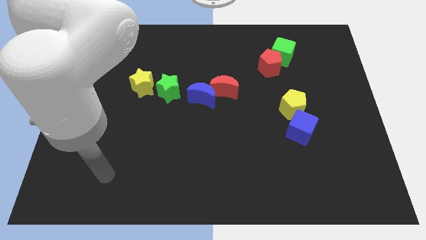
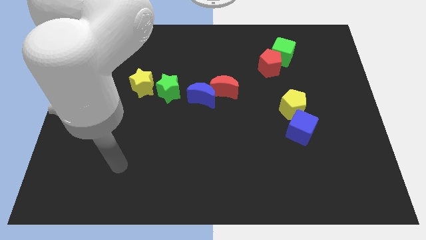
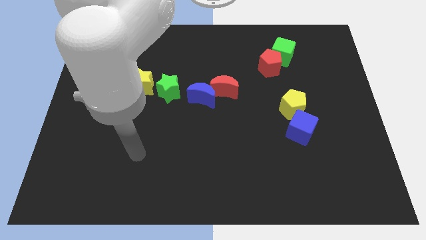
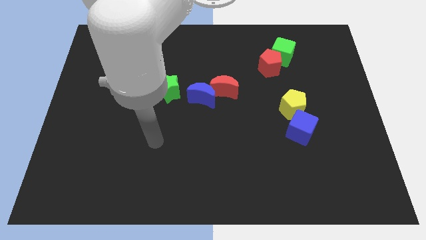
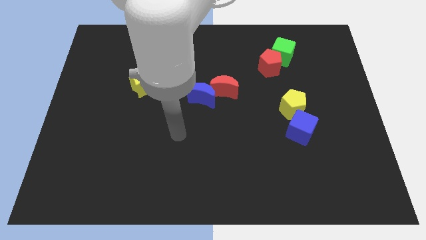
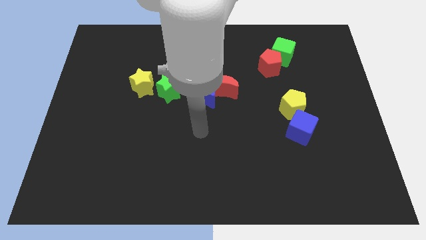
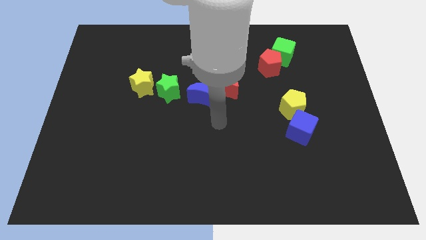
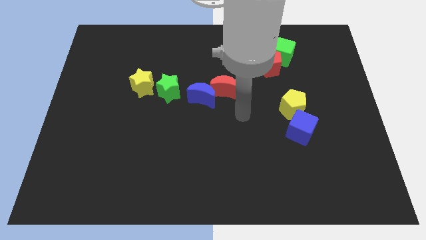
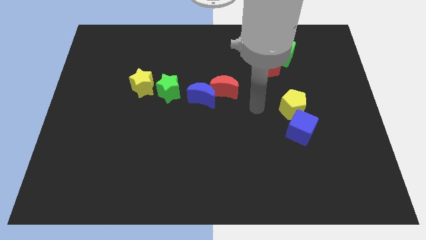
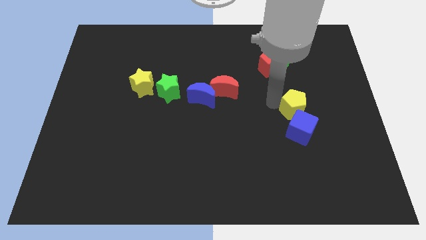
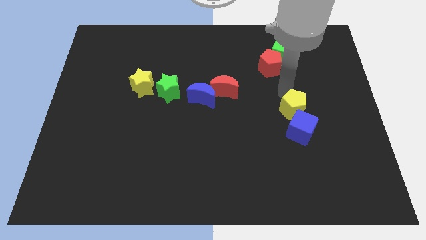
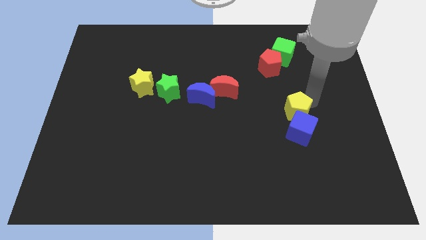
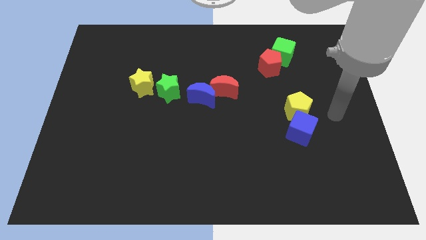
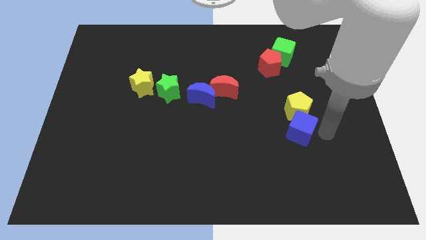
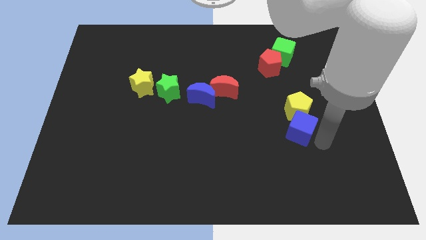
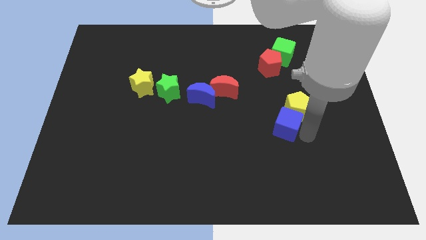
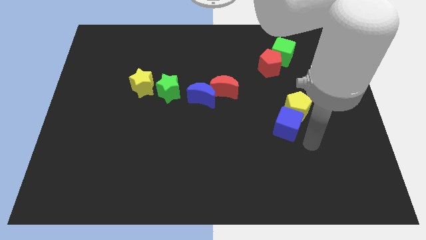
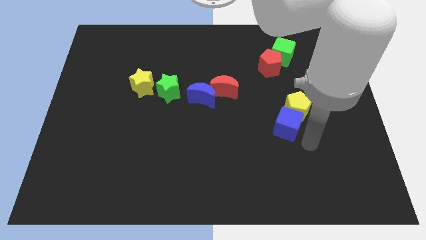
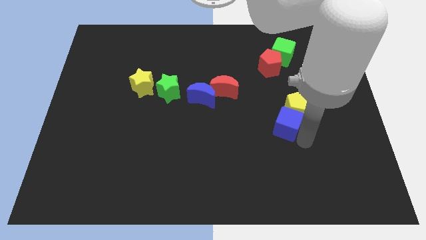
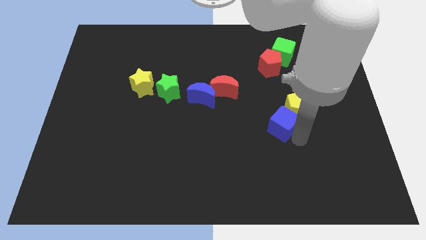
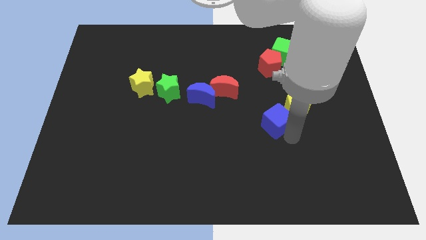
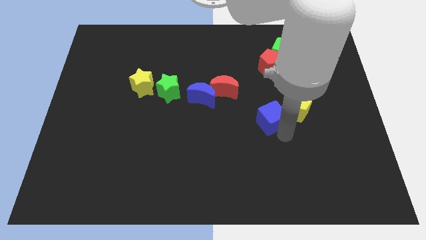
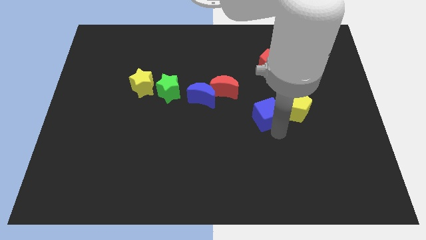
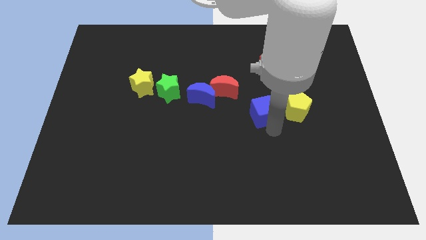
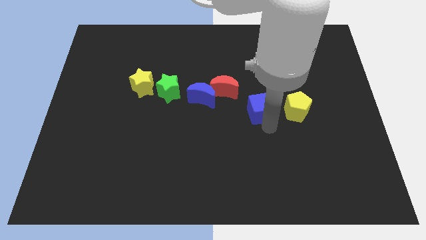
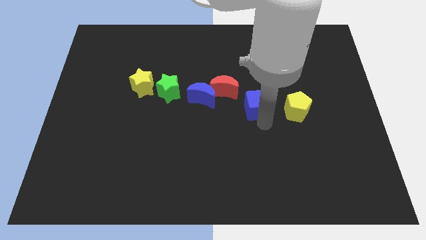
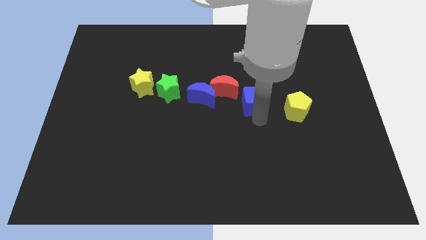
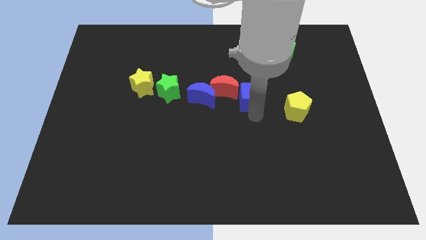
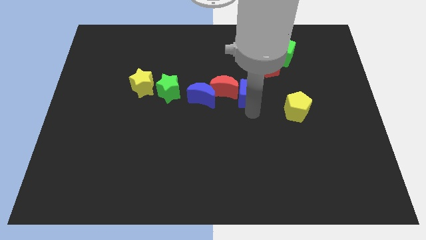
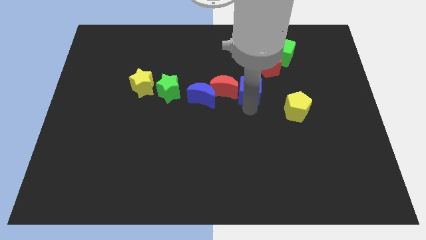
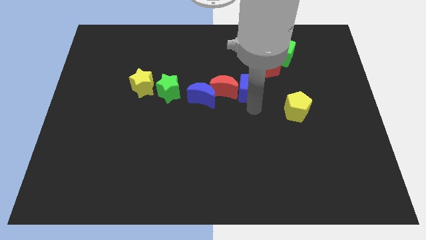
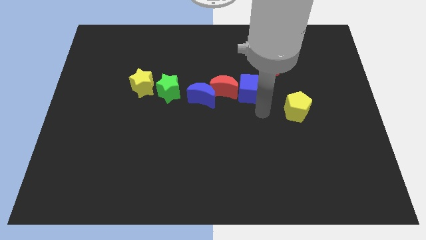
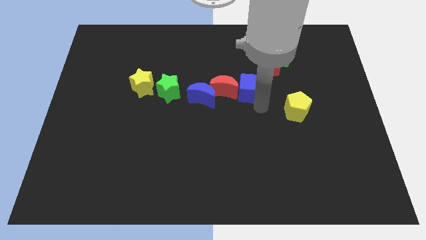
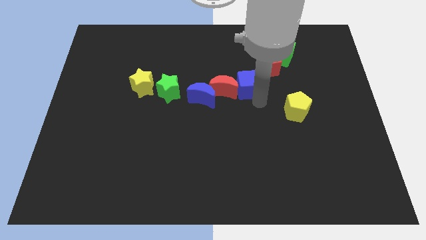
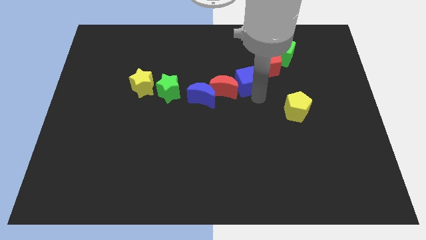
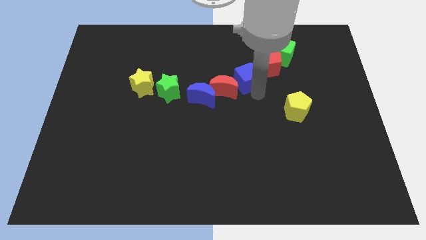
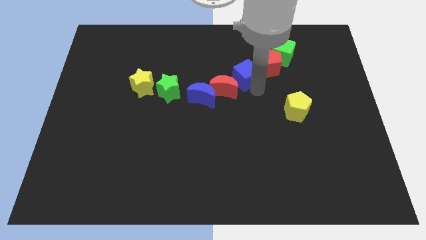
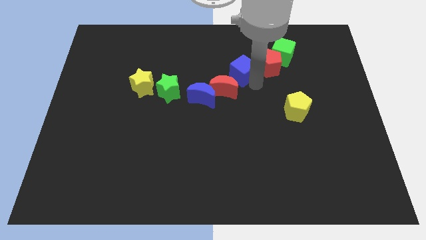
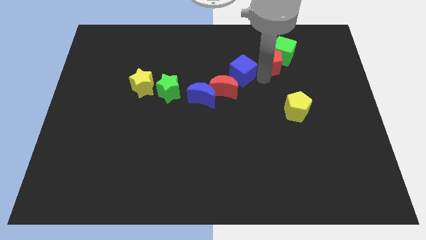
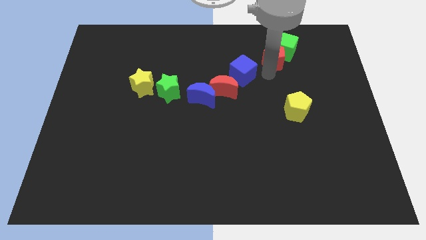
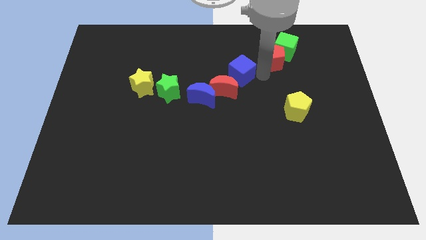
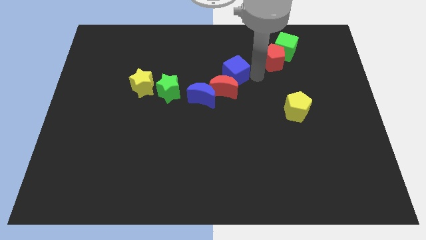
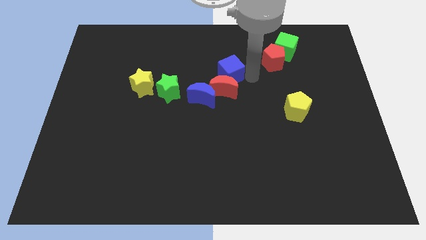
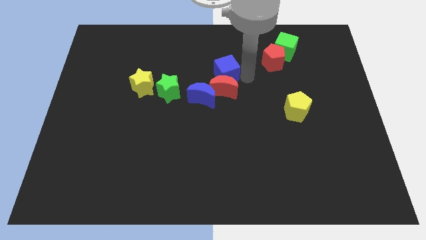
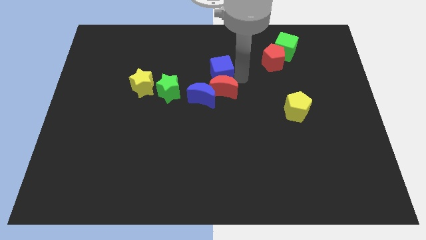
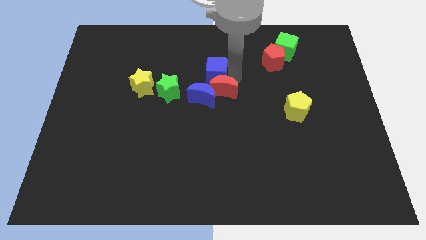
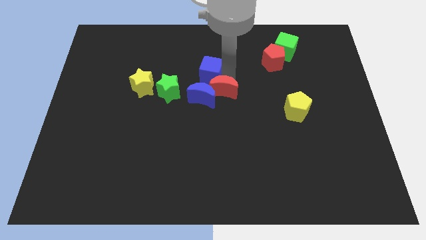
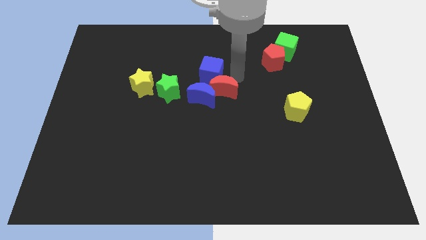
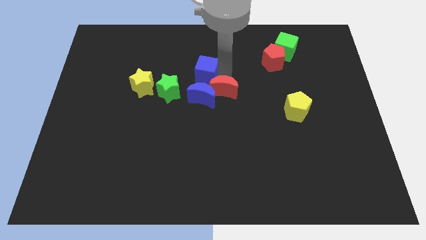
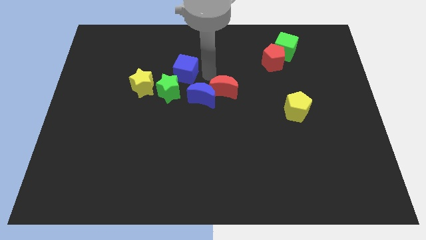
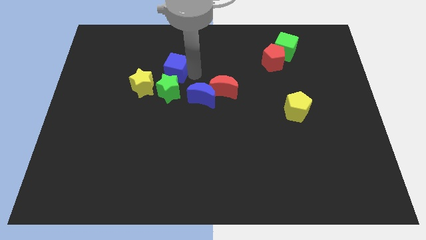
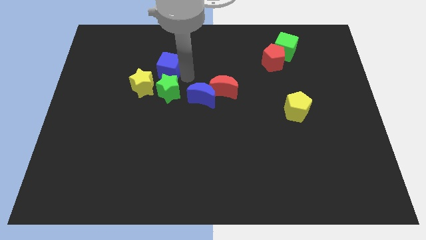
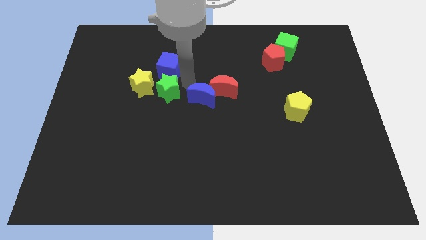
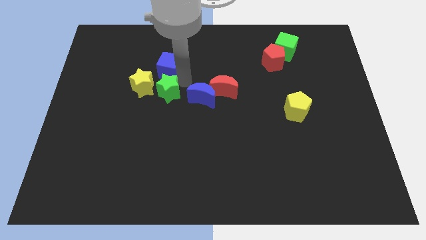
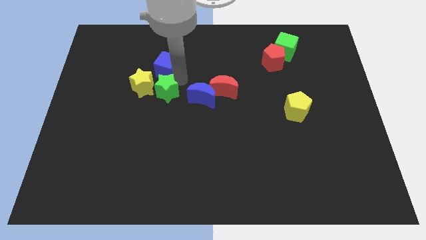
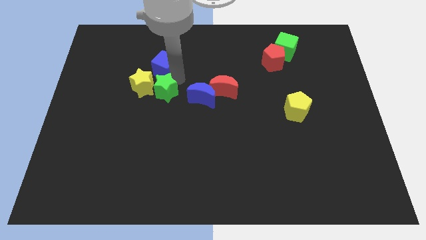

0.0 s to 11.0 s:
push the blue cube to the top of the yellow star

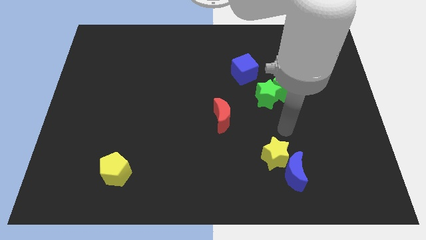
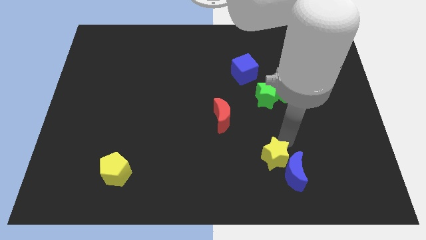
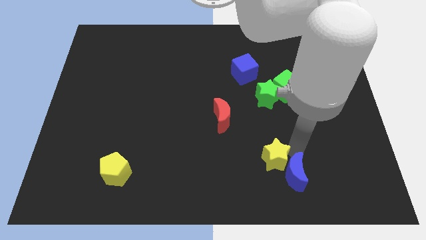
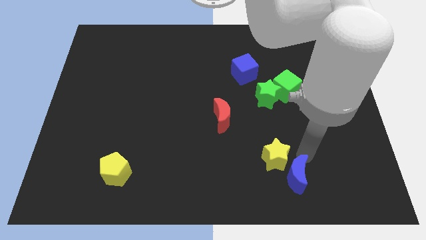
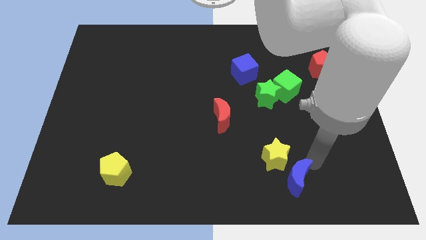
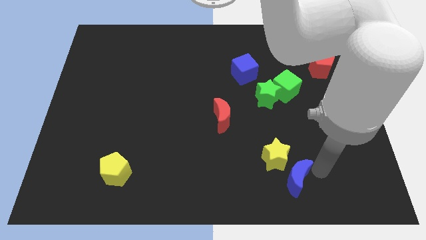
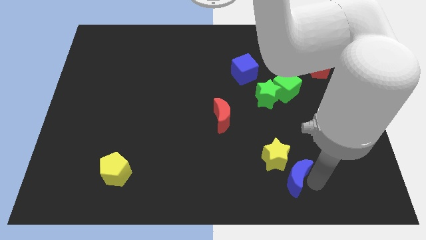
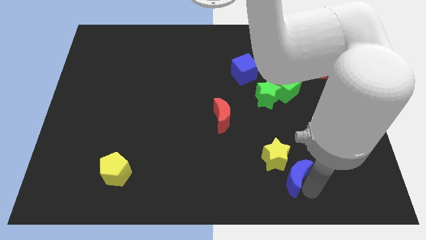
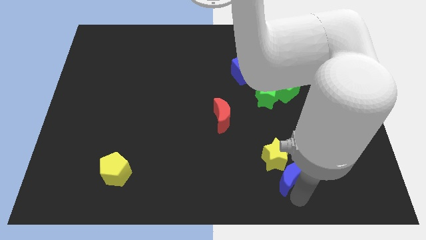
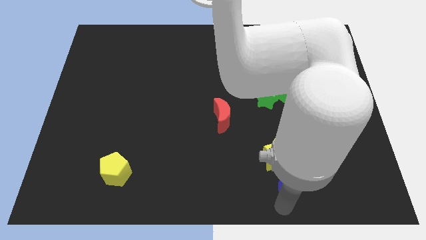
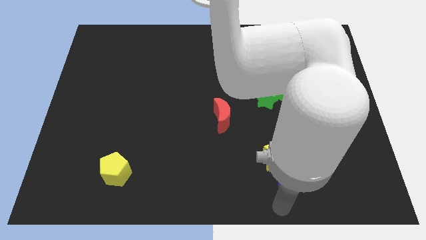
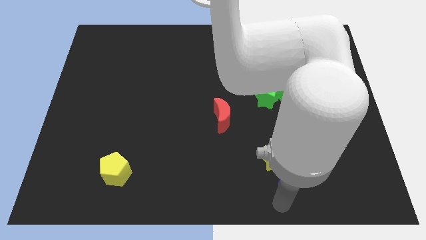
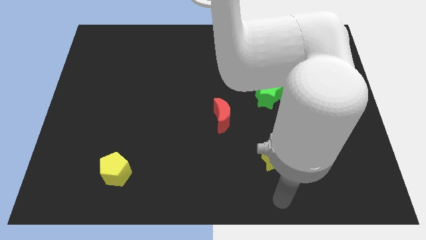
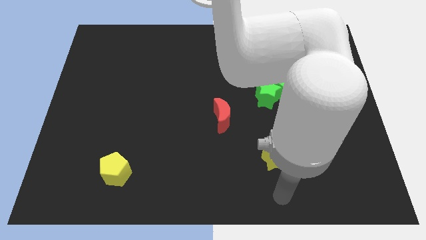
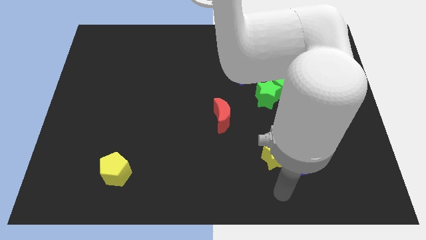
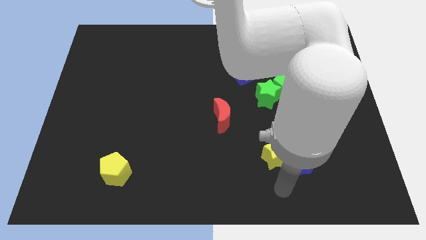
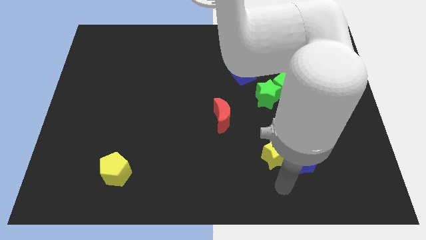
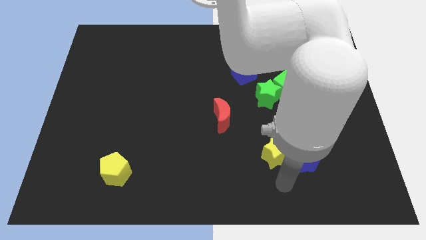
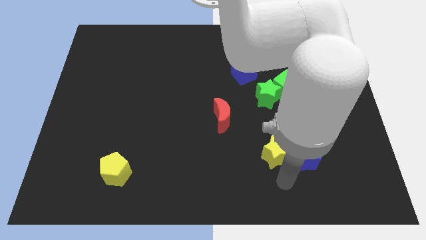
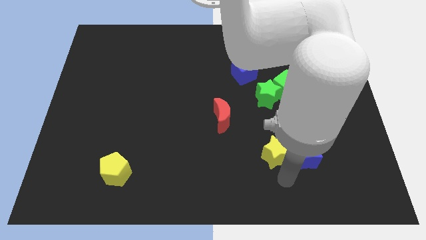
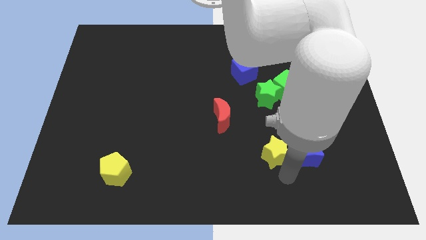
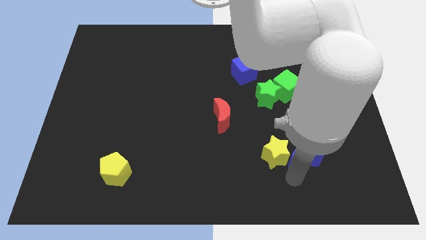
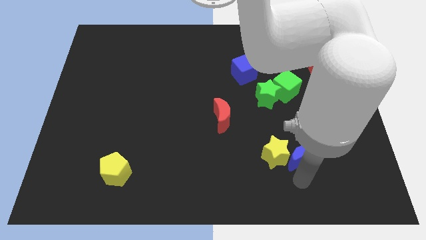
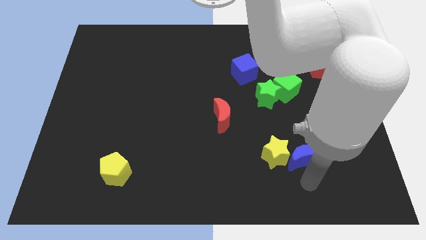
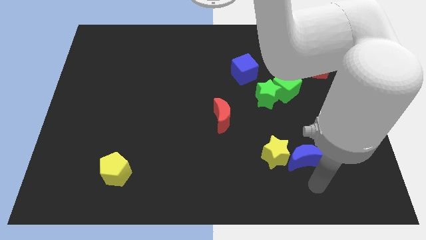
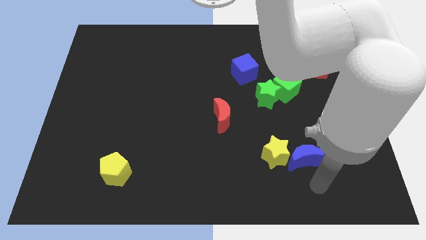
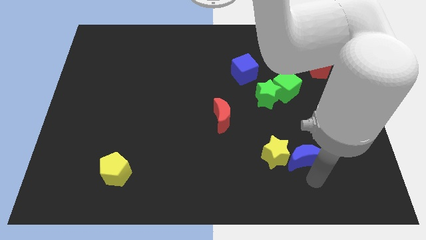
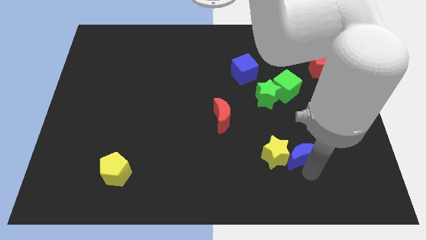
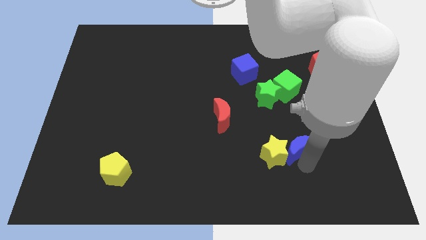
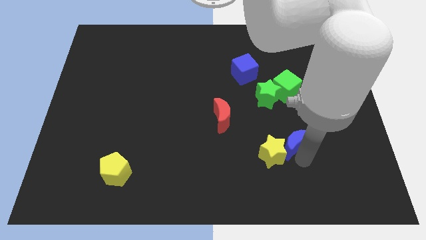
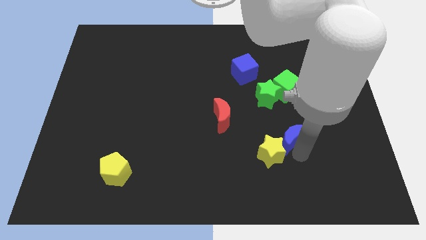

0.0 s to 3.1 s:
slide the blue moon below the green star
